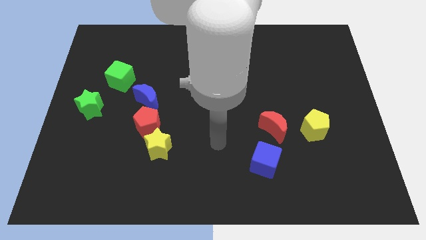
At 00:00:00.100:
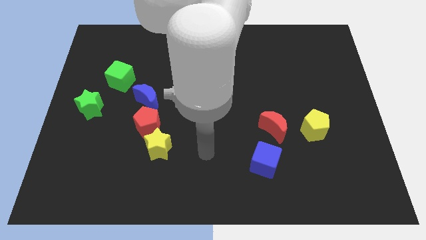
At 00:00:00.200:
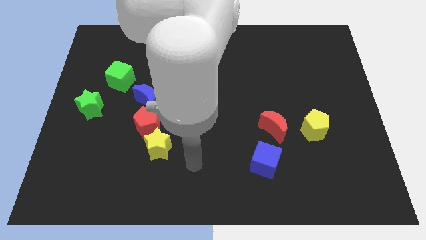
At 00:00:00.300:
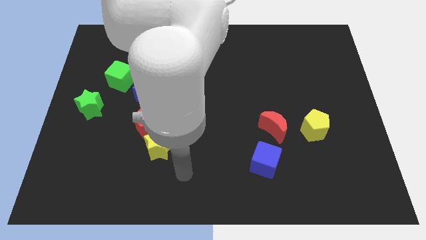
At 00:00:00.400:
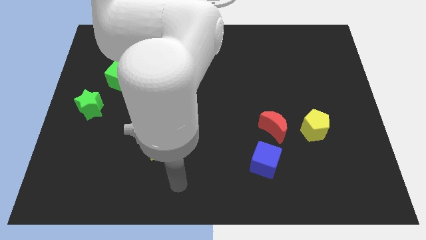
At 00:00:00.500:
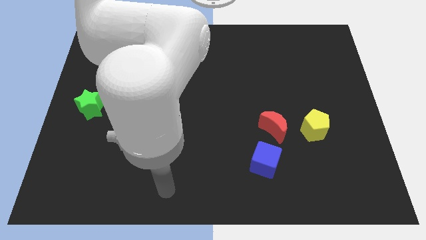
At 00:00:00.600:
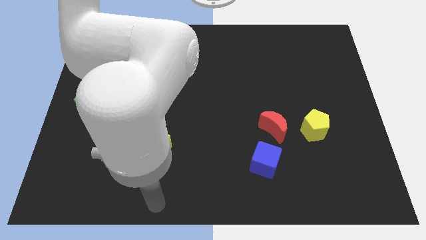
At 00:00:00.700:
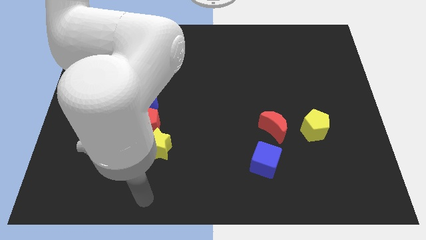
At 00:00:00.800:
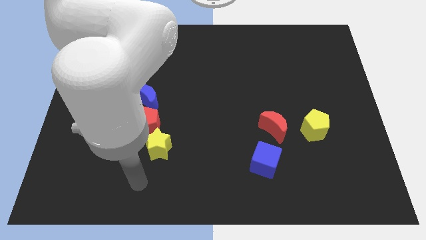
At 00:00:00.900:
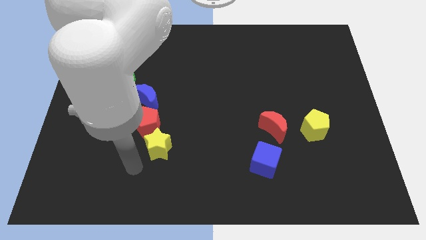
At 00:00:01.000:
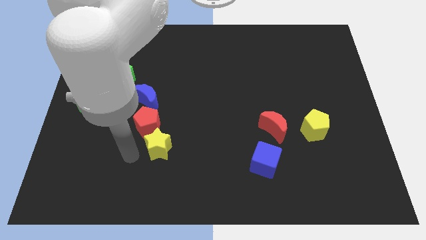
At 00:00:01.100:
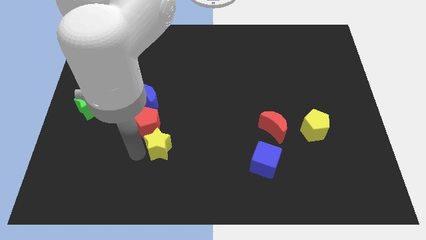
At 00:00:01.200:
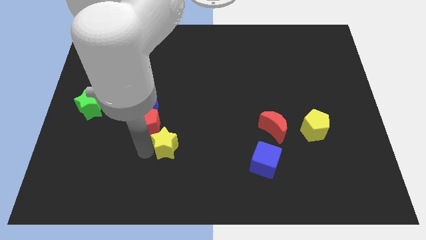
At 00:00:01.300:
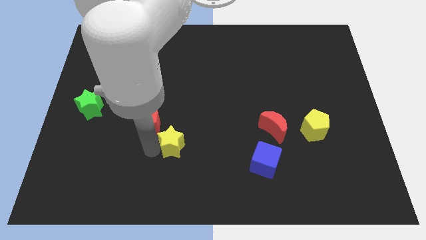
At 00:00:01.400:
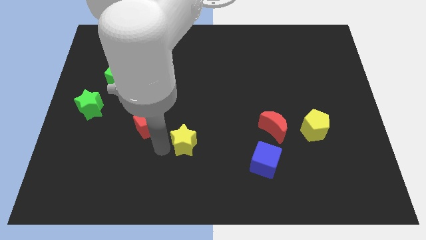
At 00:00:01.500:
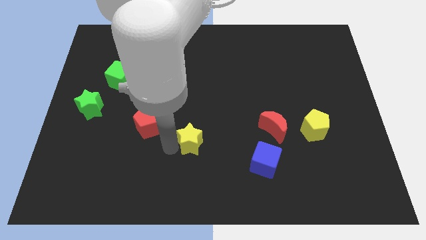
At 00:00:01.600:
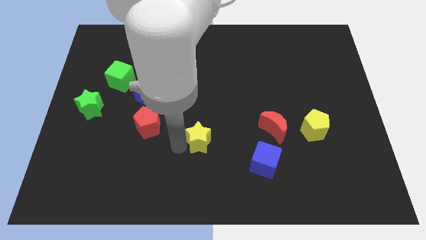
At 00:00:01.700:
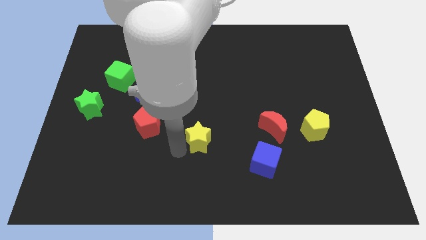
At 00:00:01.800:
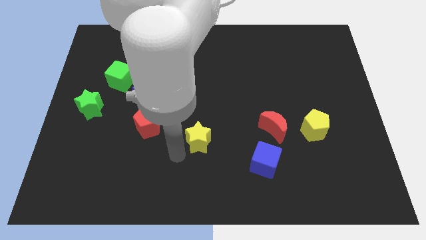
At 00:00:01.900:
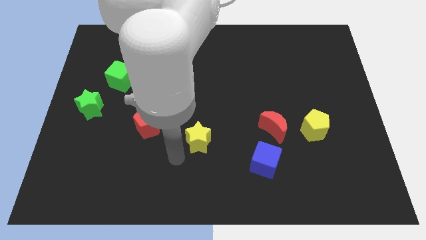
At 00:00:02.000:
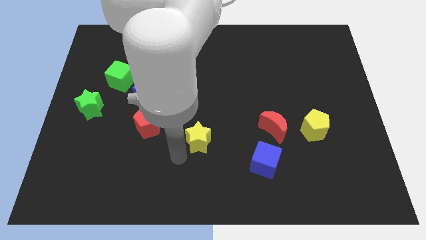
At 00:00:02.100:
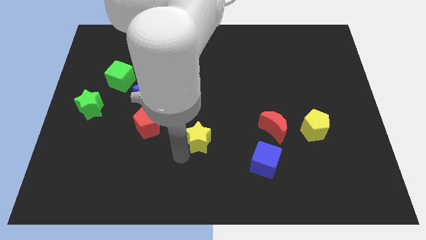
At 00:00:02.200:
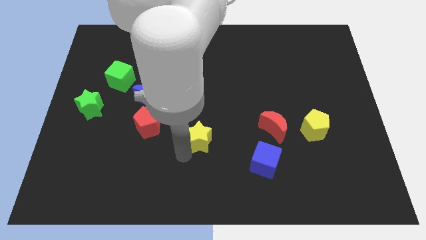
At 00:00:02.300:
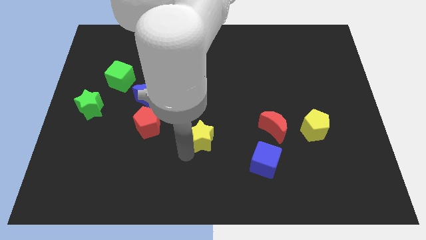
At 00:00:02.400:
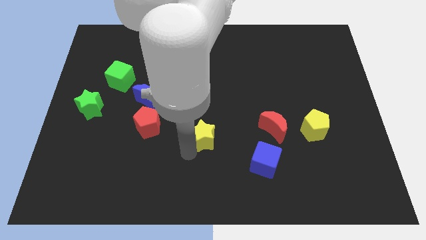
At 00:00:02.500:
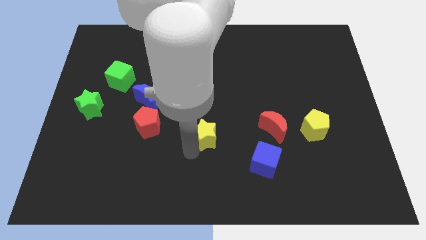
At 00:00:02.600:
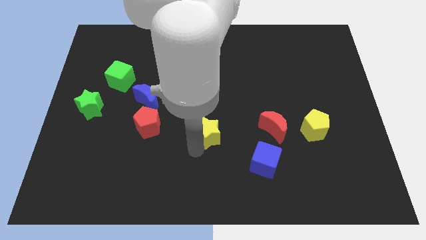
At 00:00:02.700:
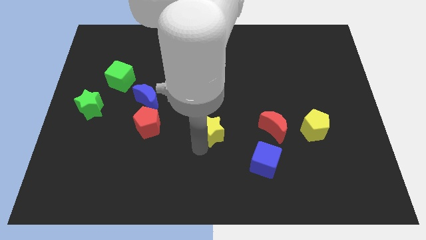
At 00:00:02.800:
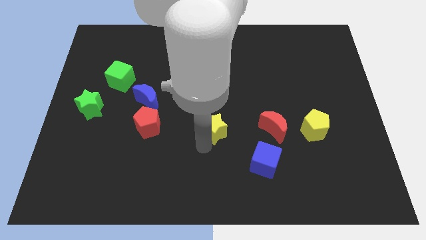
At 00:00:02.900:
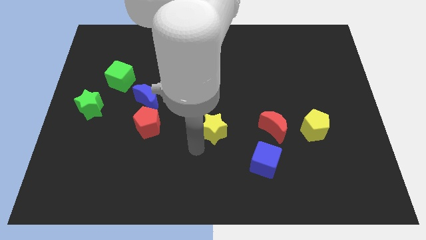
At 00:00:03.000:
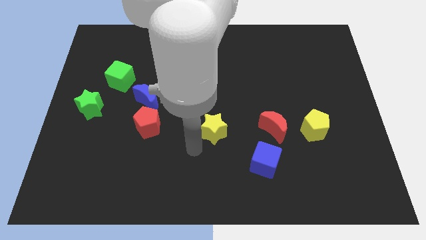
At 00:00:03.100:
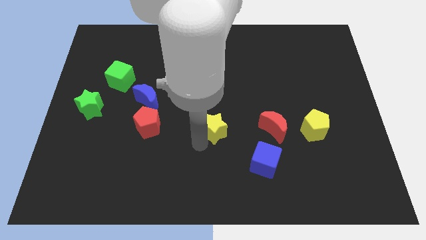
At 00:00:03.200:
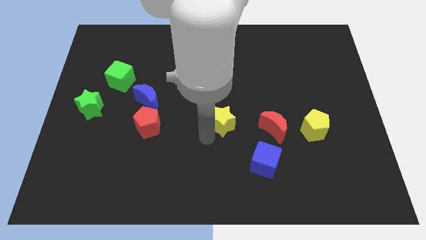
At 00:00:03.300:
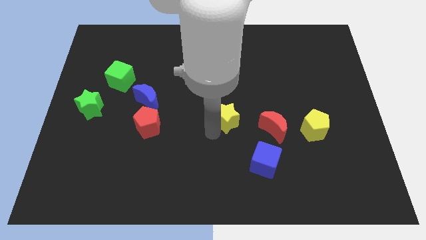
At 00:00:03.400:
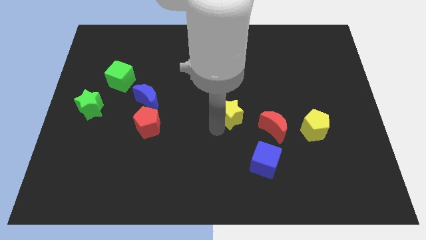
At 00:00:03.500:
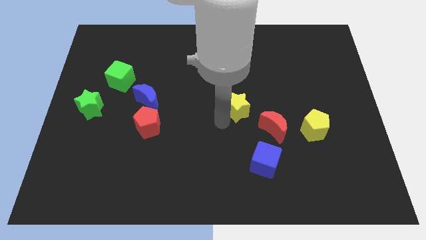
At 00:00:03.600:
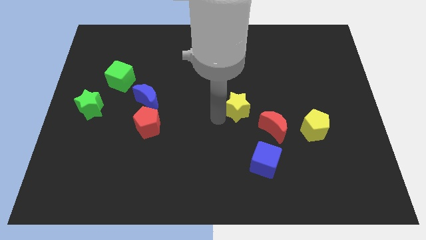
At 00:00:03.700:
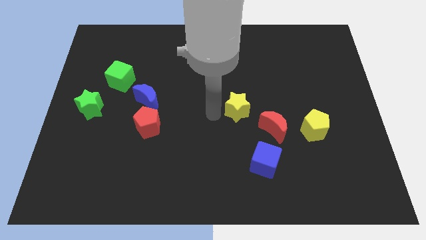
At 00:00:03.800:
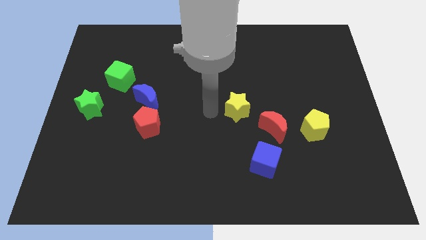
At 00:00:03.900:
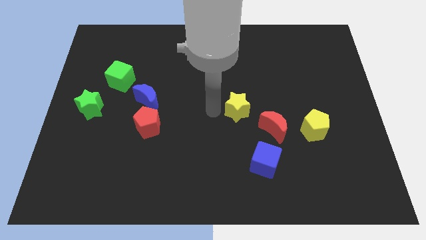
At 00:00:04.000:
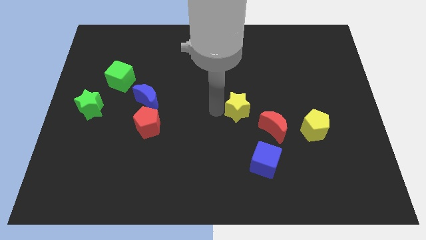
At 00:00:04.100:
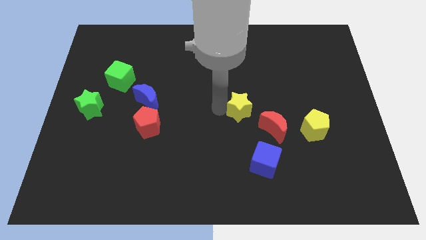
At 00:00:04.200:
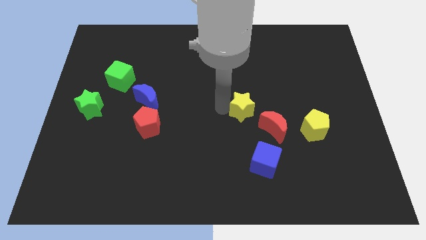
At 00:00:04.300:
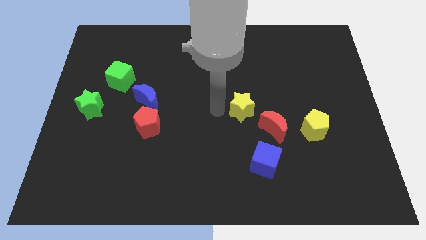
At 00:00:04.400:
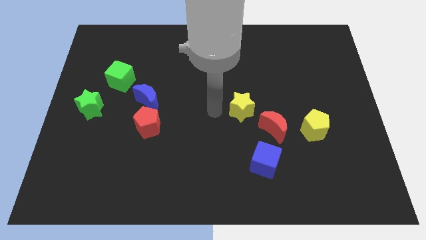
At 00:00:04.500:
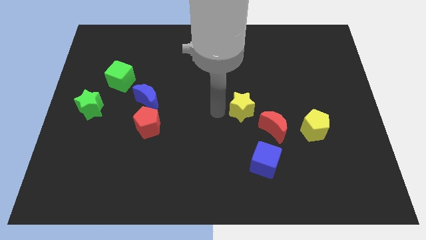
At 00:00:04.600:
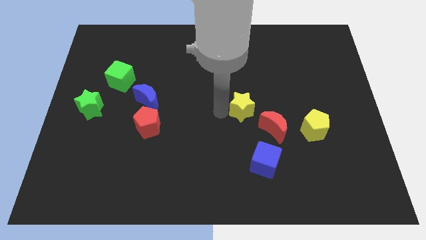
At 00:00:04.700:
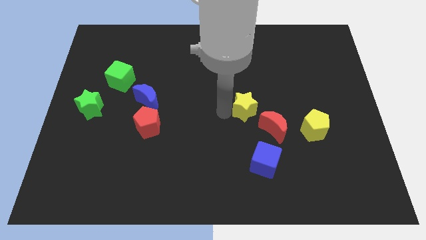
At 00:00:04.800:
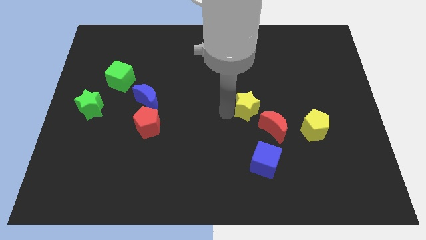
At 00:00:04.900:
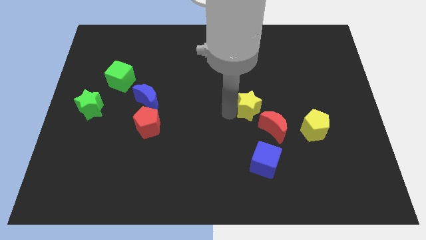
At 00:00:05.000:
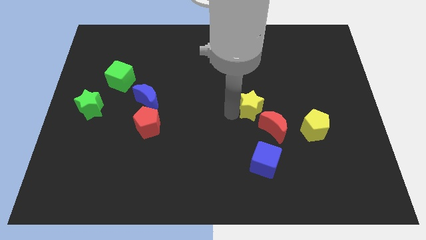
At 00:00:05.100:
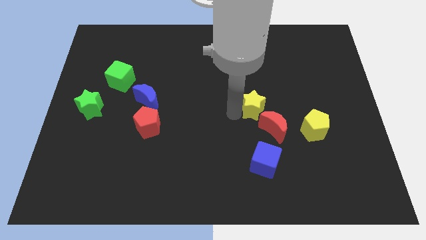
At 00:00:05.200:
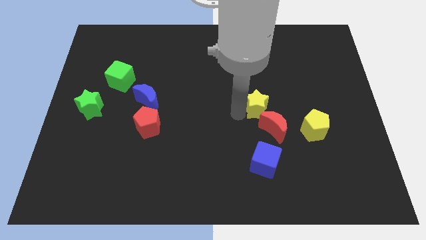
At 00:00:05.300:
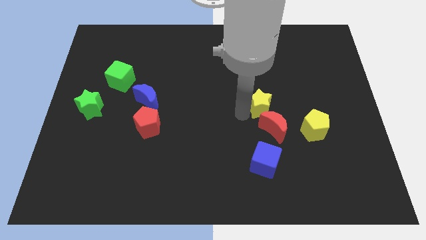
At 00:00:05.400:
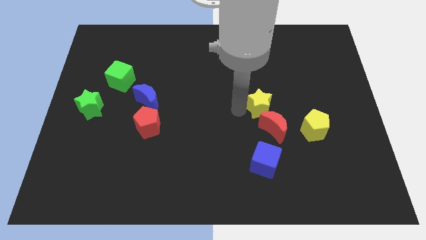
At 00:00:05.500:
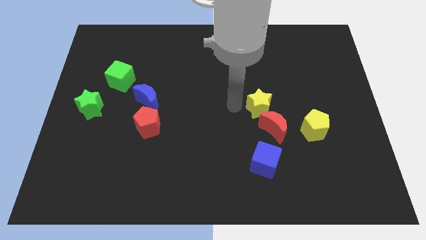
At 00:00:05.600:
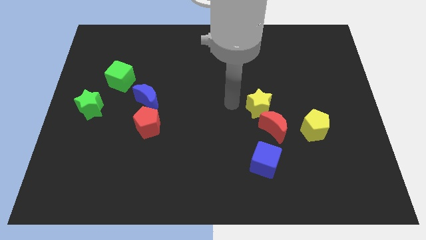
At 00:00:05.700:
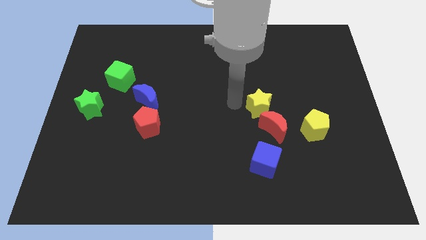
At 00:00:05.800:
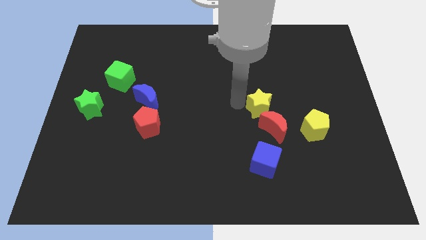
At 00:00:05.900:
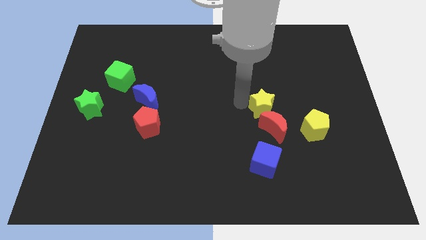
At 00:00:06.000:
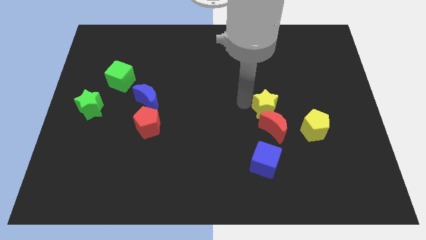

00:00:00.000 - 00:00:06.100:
slide the yellow star to the top left side of the yellow pentagon

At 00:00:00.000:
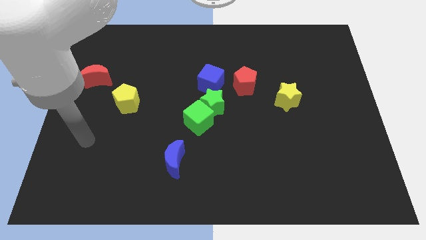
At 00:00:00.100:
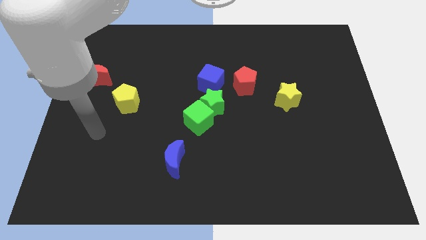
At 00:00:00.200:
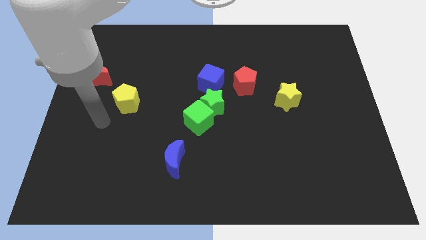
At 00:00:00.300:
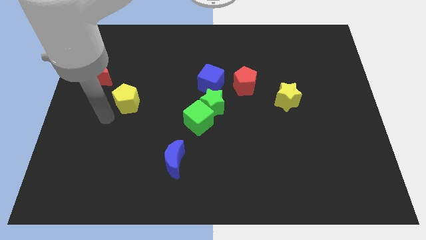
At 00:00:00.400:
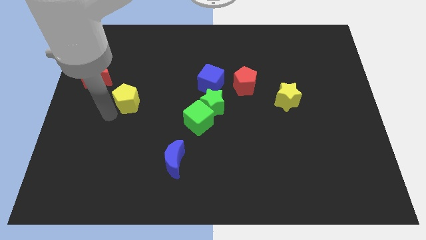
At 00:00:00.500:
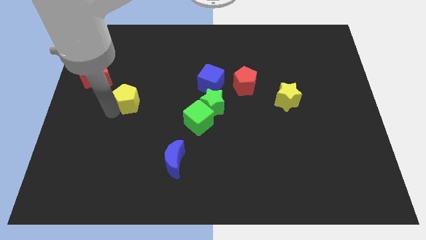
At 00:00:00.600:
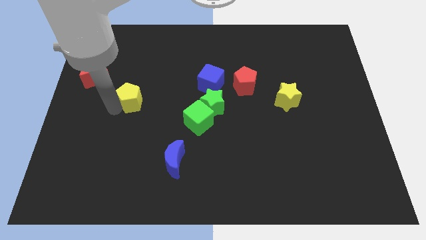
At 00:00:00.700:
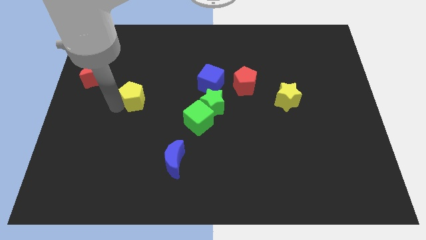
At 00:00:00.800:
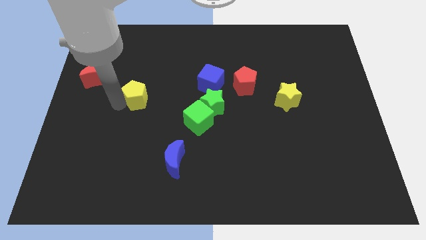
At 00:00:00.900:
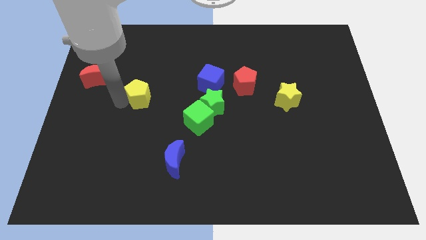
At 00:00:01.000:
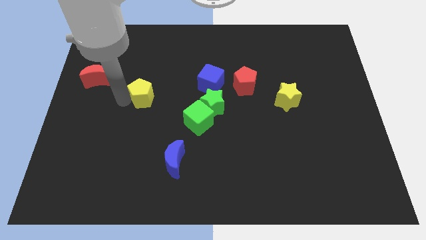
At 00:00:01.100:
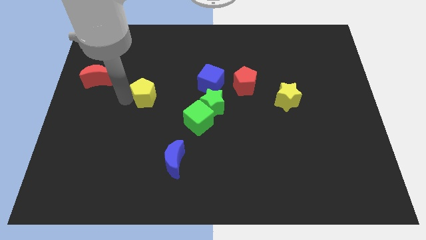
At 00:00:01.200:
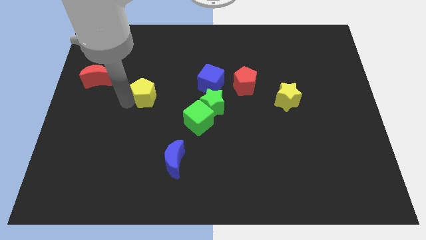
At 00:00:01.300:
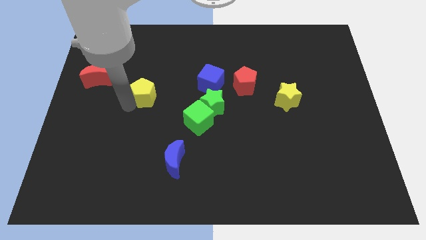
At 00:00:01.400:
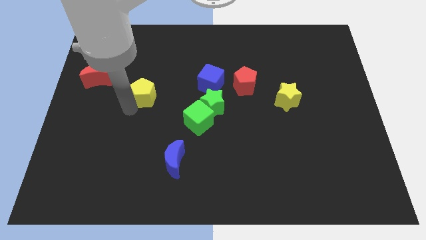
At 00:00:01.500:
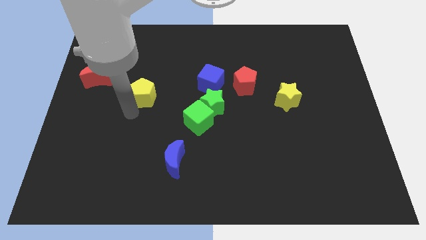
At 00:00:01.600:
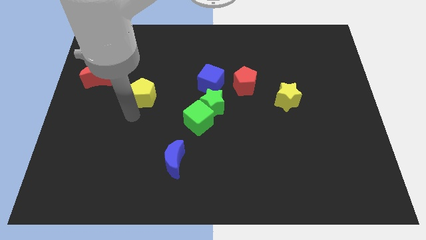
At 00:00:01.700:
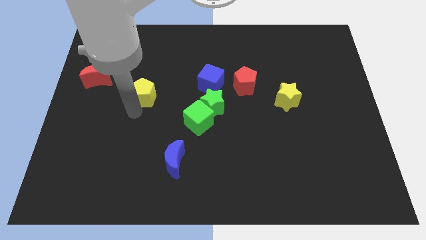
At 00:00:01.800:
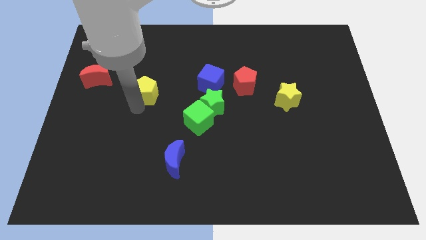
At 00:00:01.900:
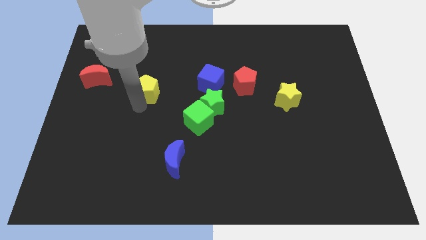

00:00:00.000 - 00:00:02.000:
put the yellow pentagon to the left of the blue cube
